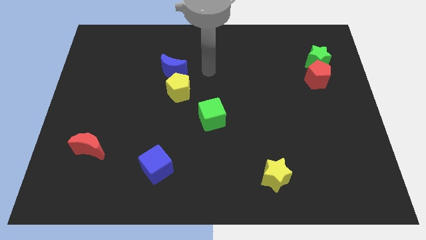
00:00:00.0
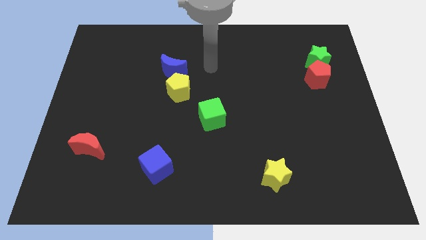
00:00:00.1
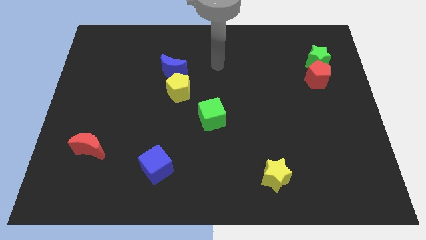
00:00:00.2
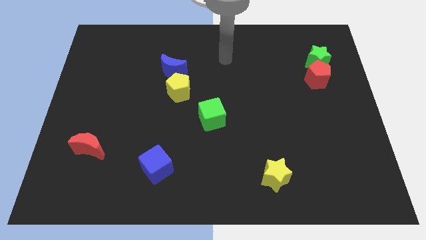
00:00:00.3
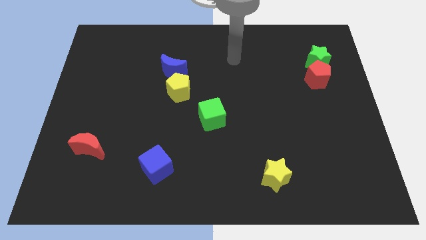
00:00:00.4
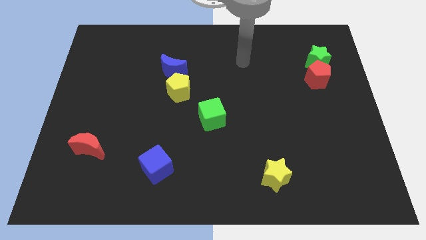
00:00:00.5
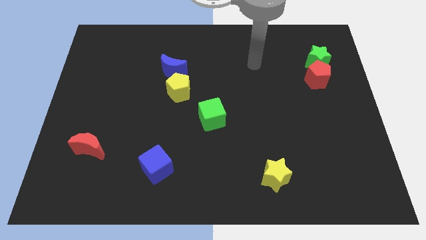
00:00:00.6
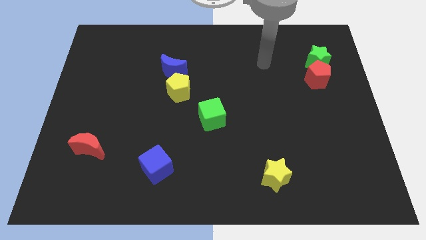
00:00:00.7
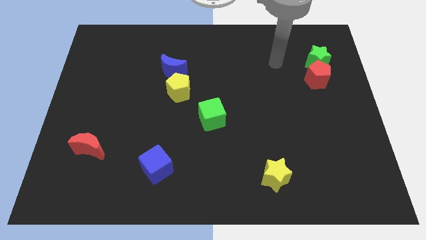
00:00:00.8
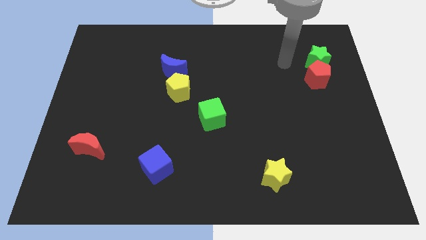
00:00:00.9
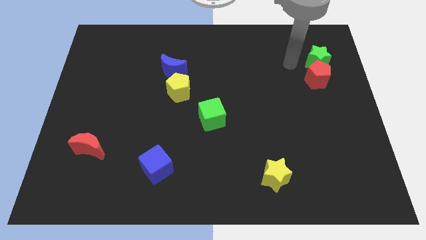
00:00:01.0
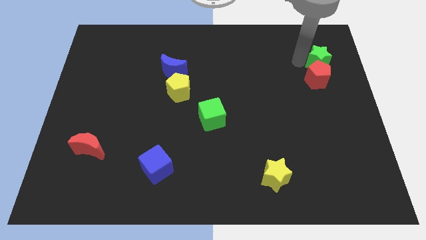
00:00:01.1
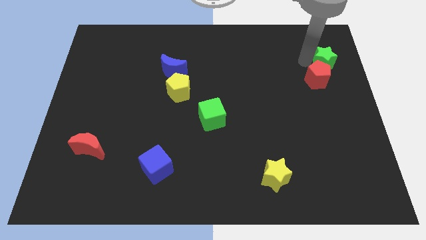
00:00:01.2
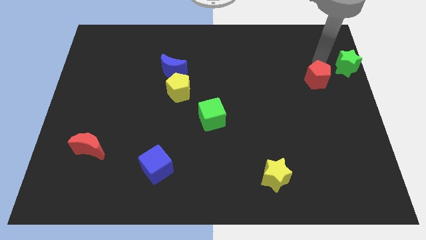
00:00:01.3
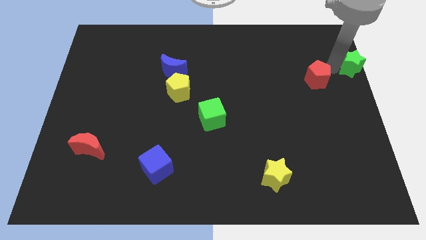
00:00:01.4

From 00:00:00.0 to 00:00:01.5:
move the red pentagon away from the green star

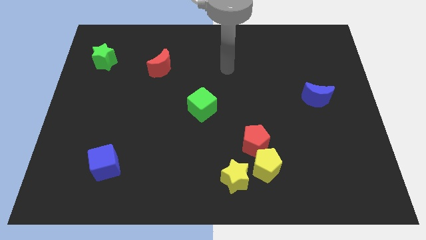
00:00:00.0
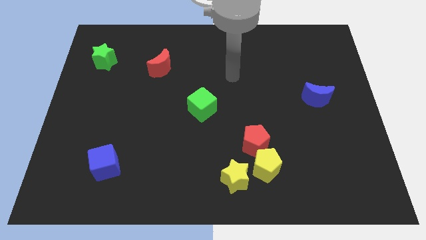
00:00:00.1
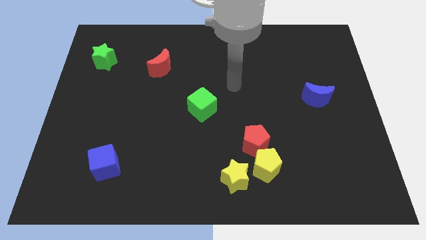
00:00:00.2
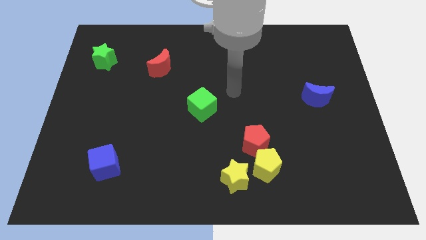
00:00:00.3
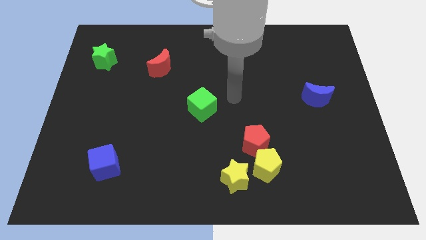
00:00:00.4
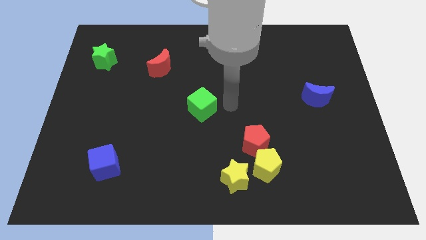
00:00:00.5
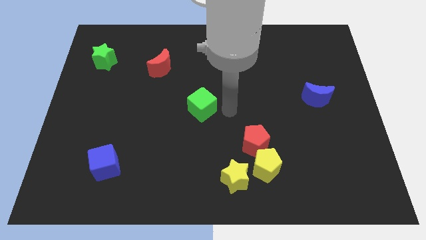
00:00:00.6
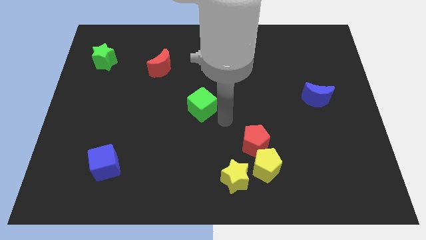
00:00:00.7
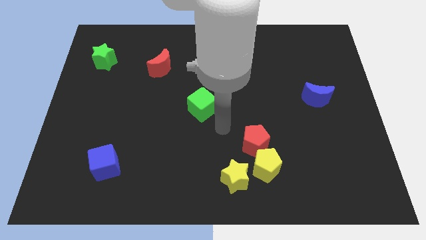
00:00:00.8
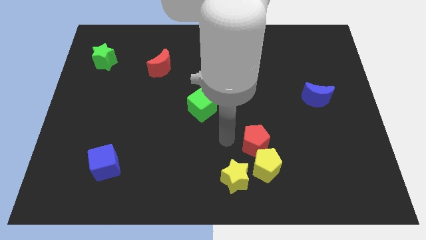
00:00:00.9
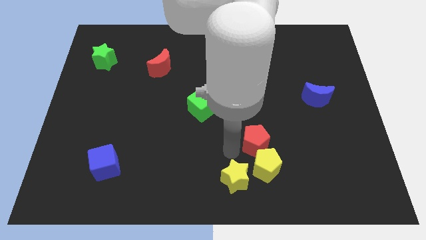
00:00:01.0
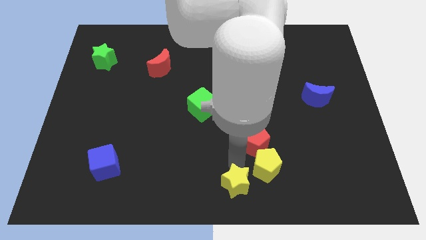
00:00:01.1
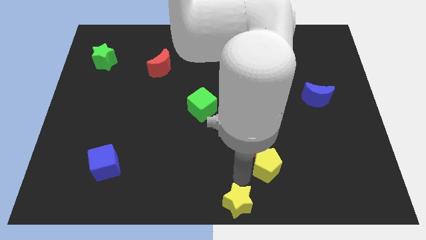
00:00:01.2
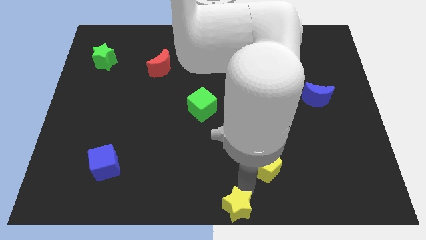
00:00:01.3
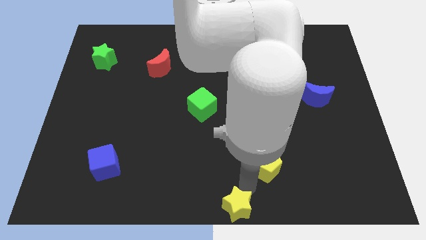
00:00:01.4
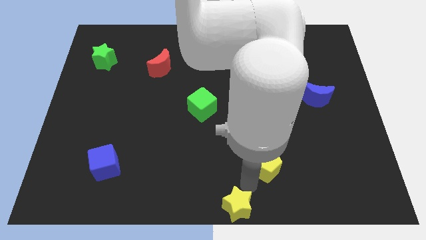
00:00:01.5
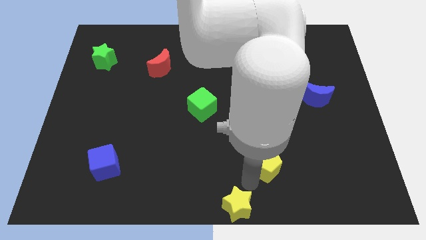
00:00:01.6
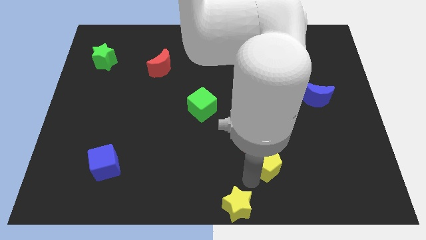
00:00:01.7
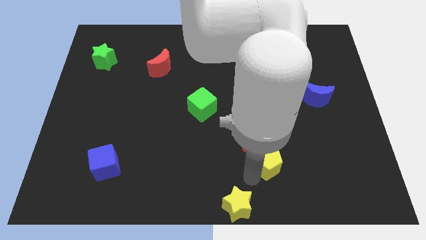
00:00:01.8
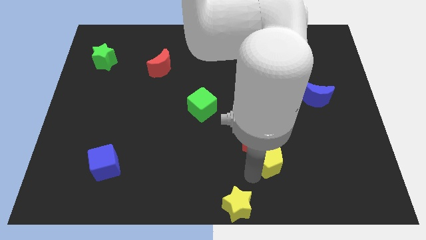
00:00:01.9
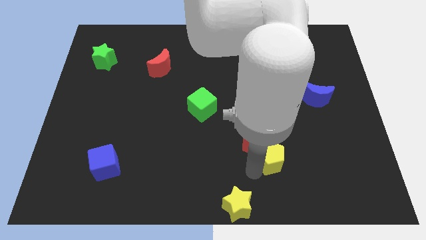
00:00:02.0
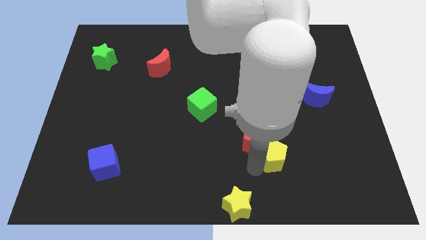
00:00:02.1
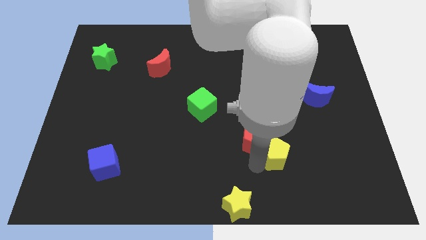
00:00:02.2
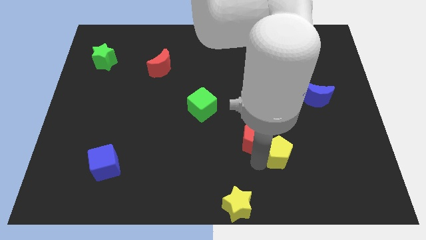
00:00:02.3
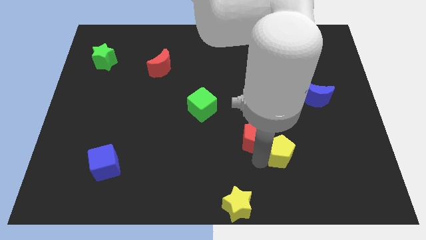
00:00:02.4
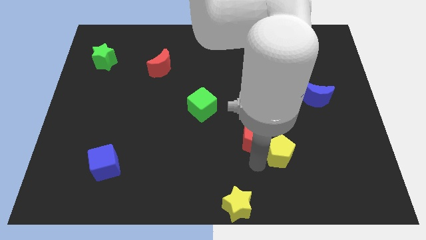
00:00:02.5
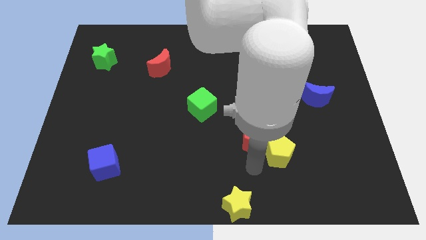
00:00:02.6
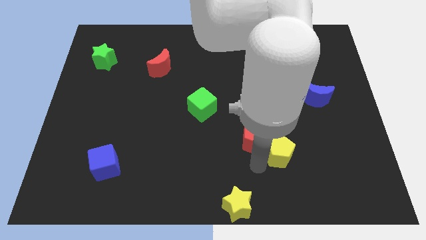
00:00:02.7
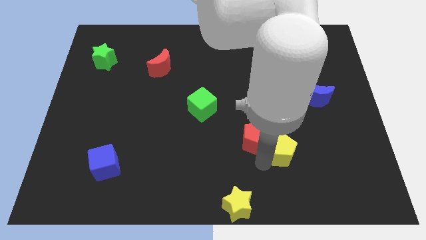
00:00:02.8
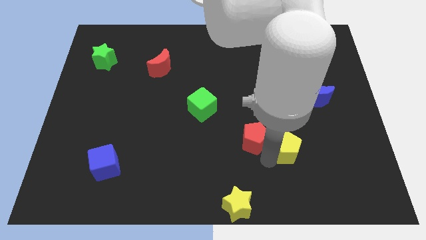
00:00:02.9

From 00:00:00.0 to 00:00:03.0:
pull the yellow pentagon apart from the red pentagon and yellow star

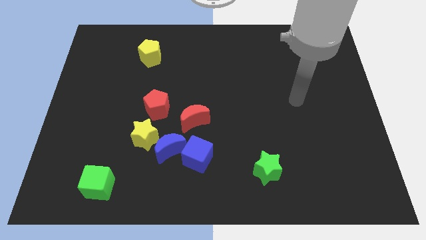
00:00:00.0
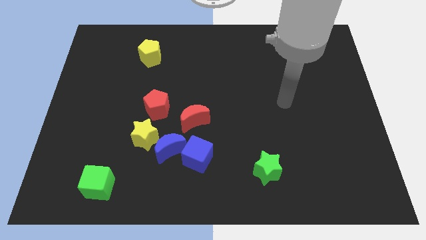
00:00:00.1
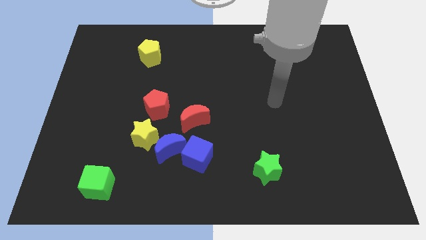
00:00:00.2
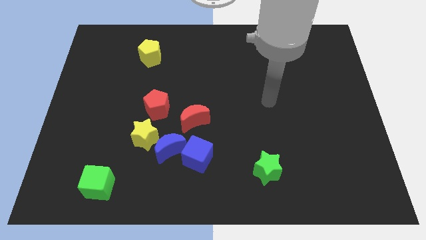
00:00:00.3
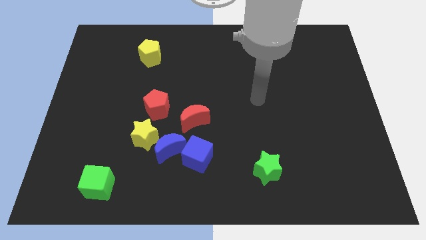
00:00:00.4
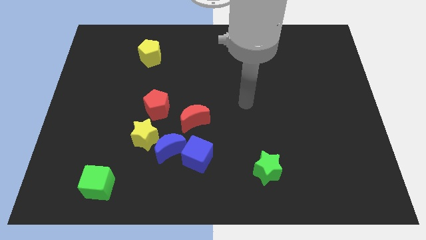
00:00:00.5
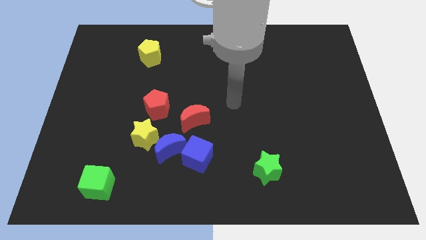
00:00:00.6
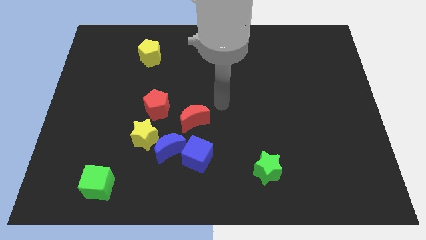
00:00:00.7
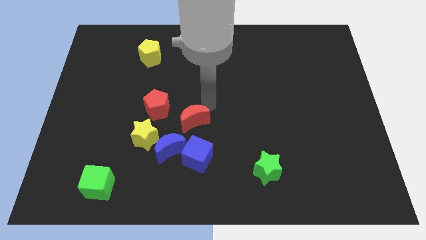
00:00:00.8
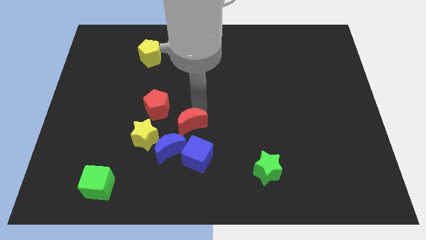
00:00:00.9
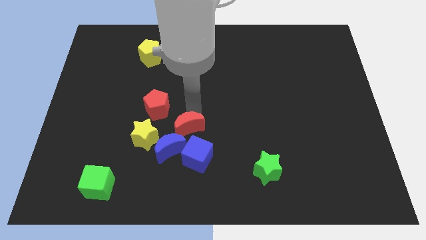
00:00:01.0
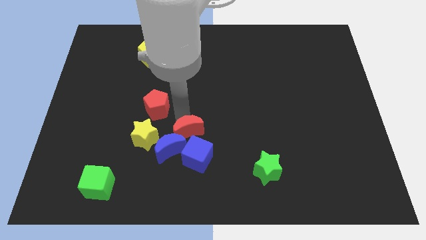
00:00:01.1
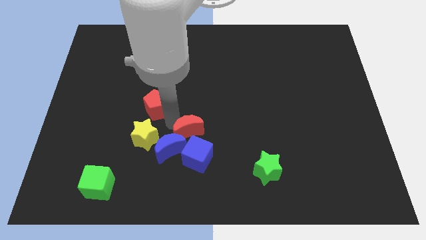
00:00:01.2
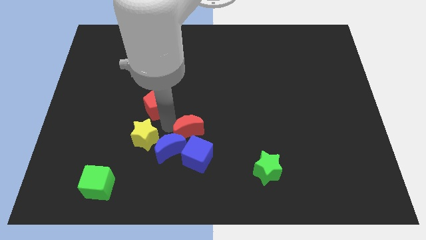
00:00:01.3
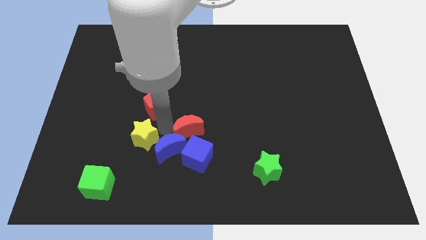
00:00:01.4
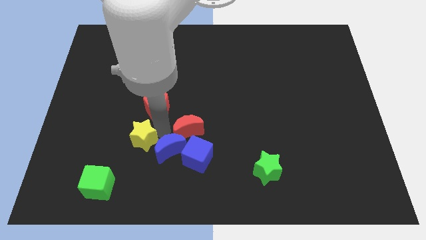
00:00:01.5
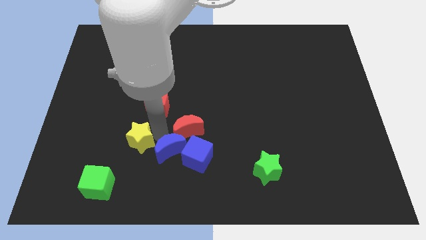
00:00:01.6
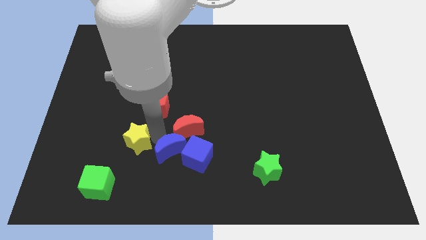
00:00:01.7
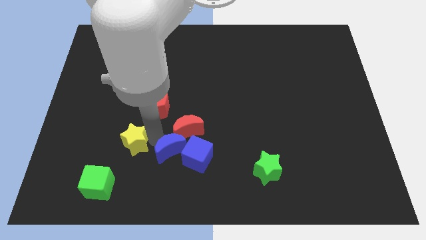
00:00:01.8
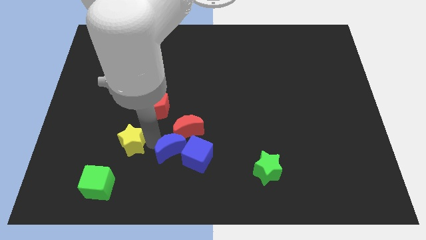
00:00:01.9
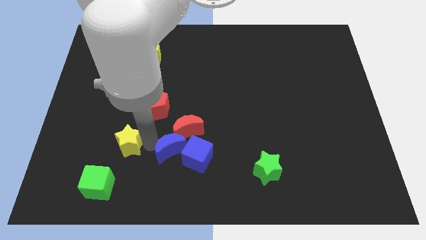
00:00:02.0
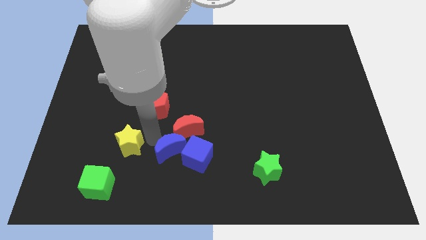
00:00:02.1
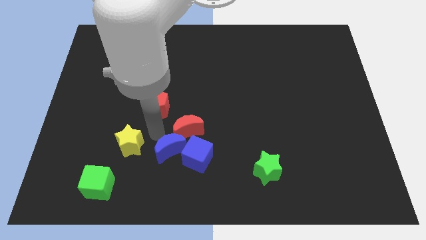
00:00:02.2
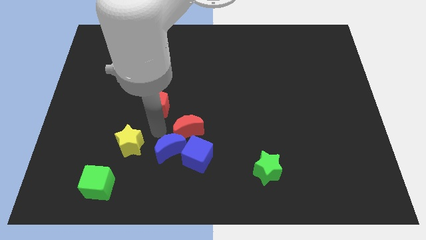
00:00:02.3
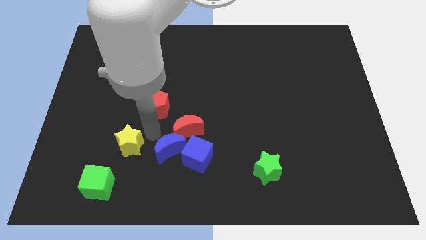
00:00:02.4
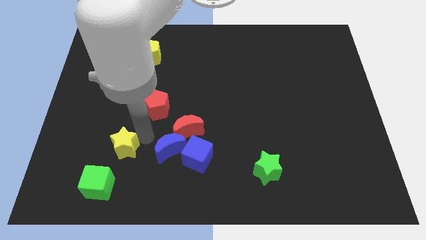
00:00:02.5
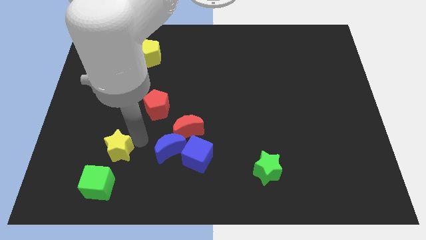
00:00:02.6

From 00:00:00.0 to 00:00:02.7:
separate the yellow star from the blue moon and red pentagon

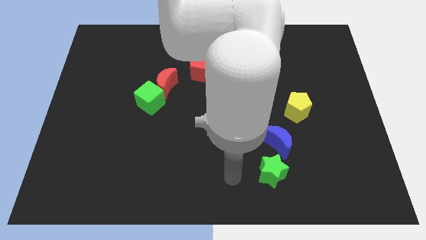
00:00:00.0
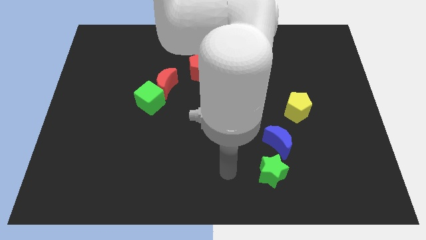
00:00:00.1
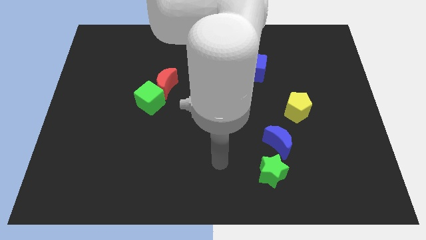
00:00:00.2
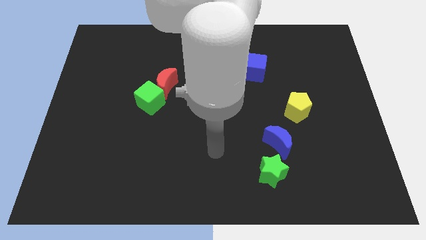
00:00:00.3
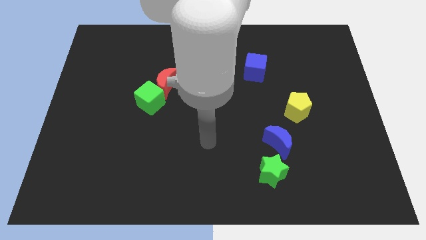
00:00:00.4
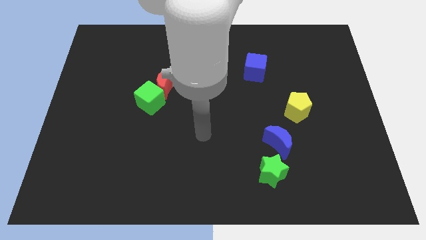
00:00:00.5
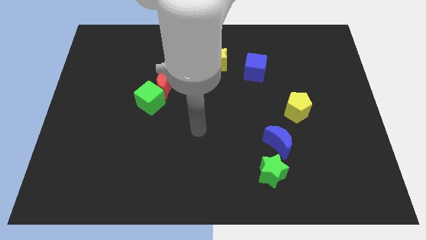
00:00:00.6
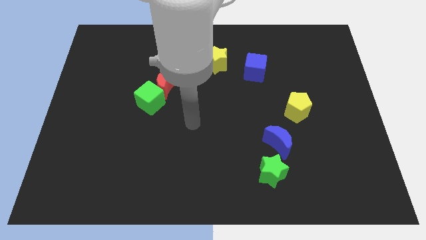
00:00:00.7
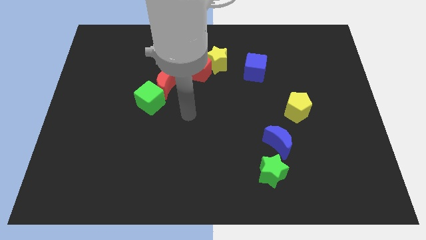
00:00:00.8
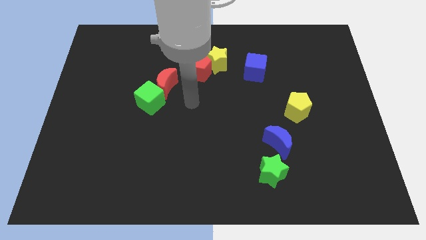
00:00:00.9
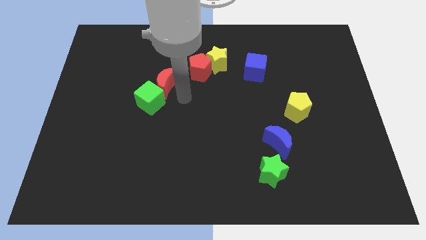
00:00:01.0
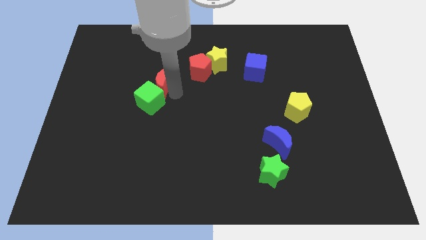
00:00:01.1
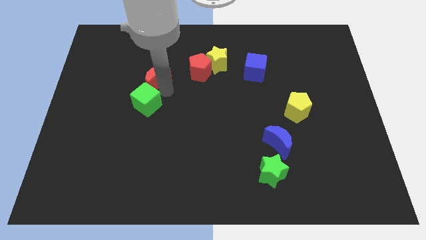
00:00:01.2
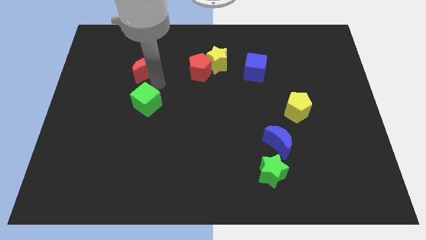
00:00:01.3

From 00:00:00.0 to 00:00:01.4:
separate the green cube from the red moon

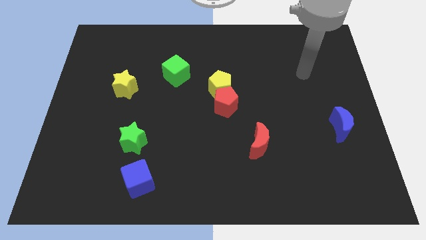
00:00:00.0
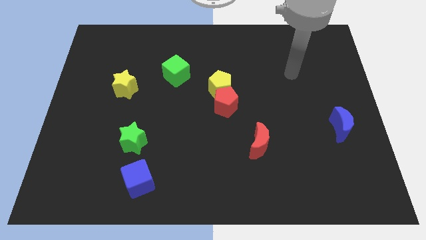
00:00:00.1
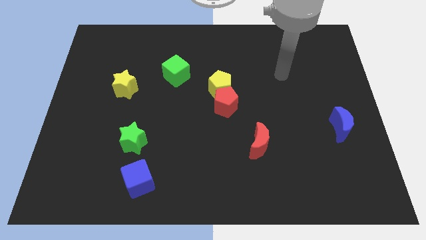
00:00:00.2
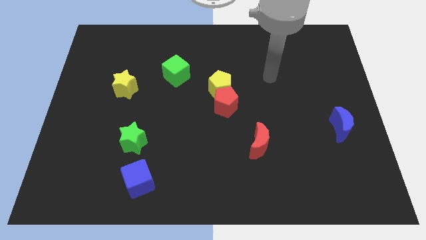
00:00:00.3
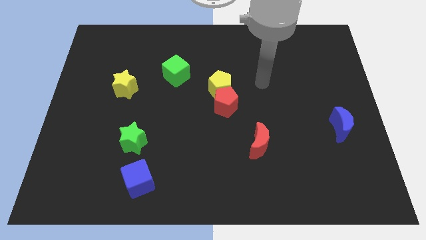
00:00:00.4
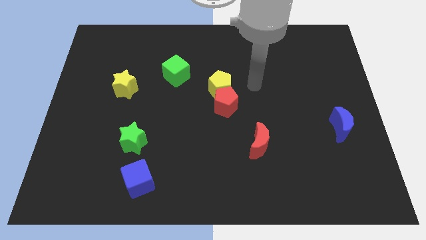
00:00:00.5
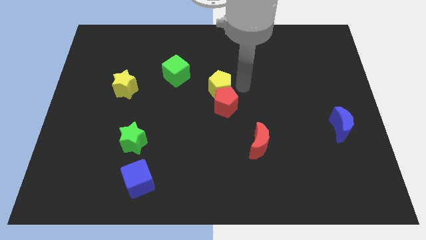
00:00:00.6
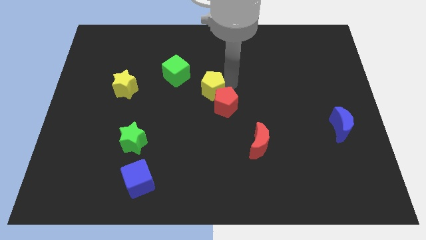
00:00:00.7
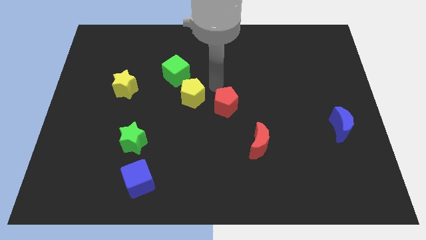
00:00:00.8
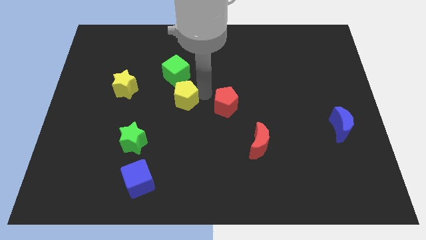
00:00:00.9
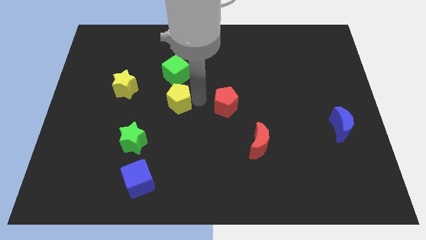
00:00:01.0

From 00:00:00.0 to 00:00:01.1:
move the red pentagon away from the yellow pentagon
